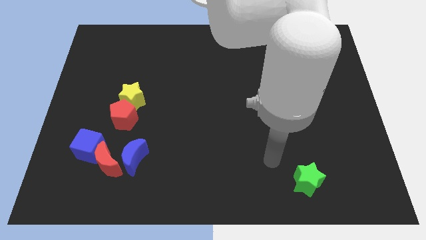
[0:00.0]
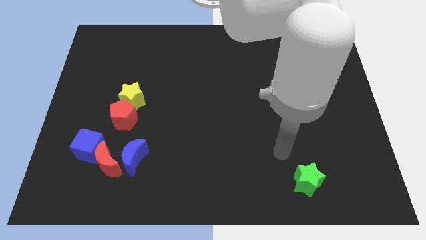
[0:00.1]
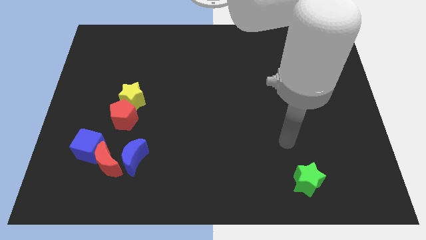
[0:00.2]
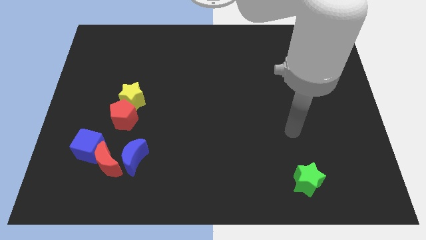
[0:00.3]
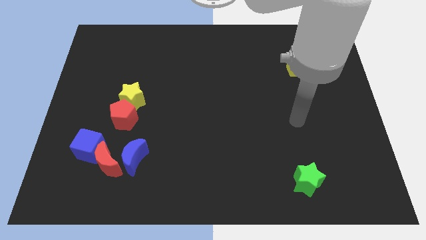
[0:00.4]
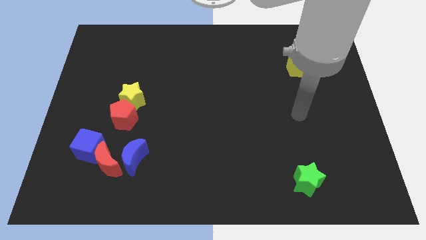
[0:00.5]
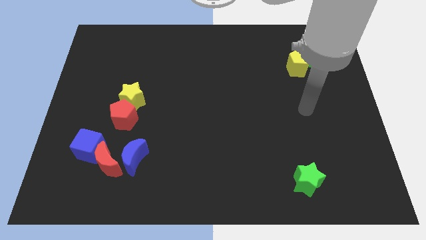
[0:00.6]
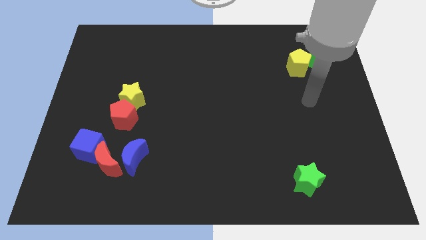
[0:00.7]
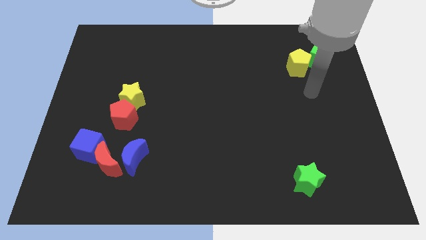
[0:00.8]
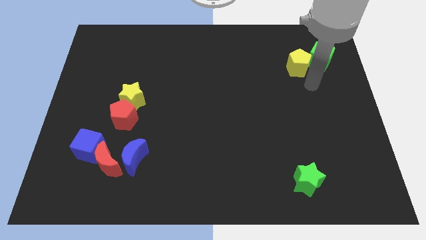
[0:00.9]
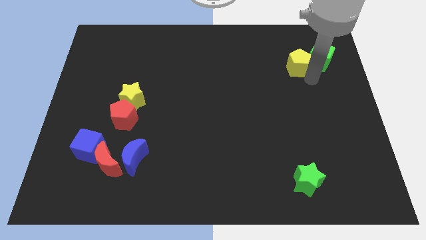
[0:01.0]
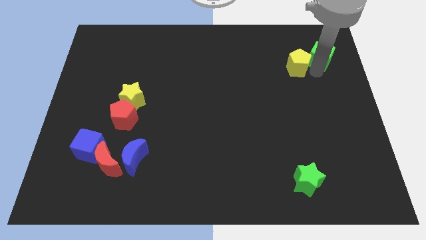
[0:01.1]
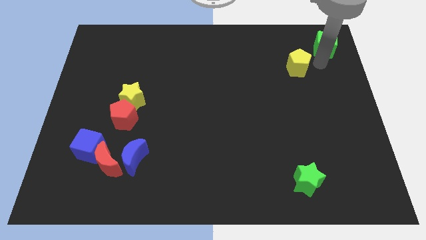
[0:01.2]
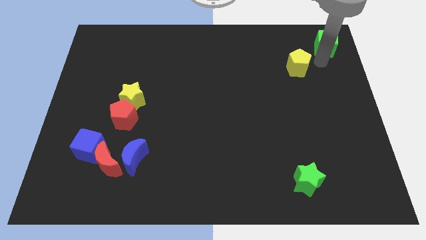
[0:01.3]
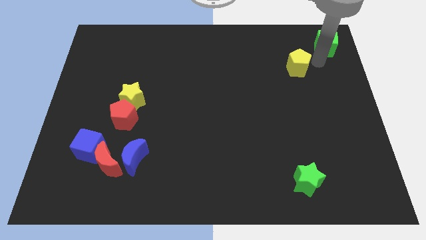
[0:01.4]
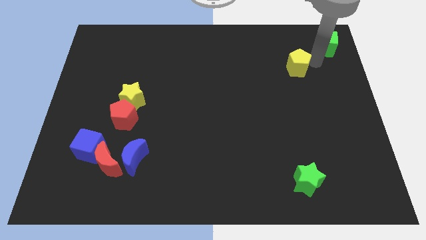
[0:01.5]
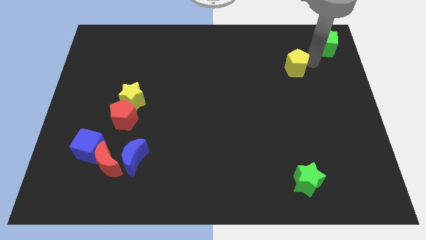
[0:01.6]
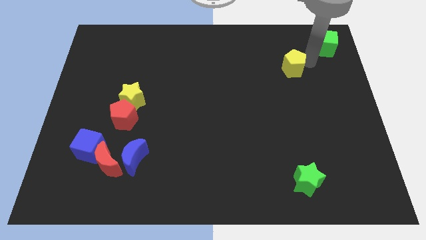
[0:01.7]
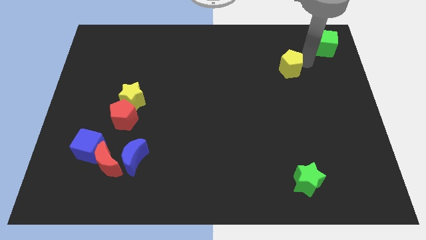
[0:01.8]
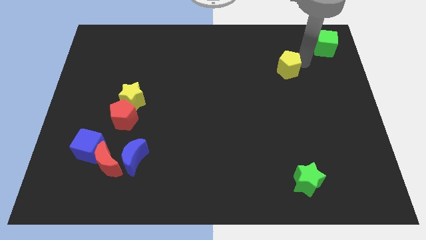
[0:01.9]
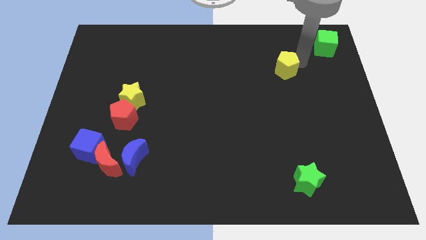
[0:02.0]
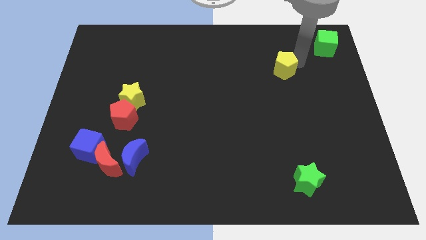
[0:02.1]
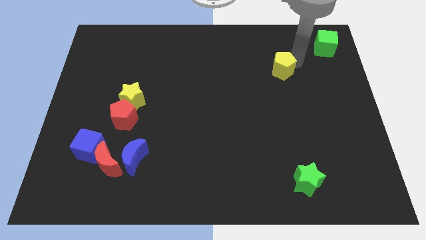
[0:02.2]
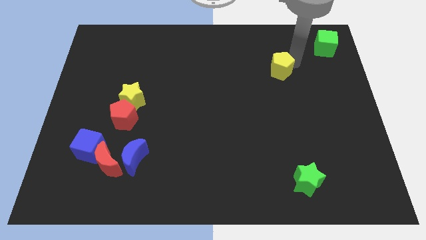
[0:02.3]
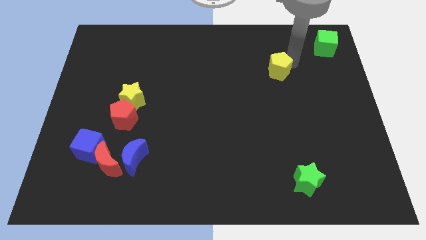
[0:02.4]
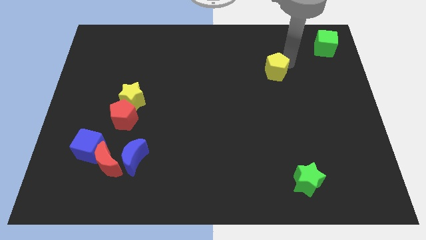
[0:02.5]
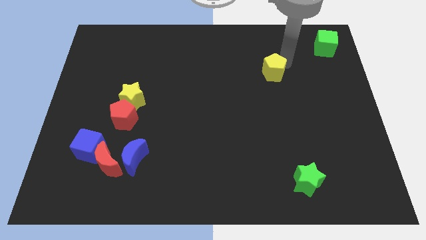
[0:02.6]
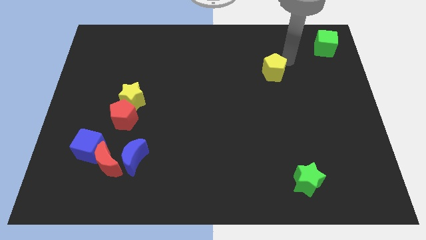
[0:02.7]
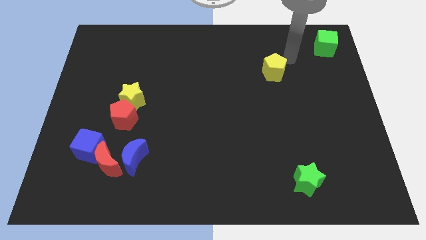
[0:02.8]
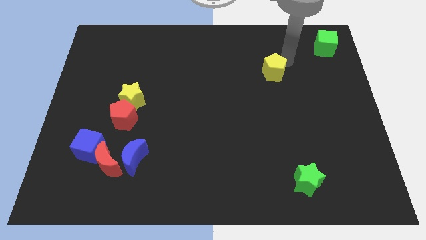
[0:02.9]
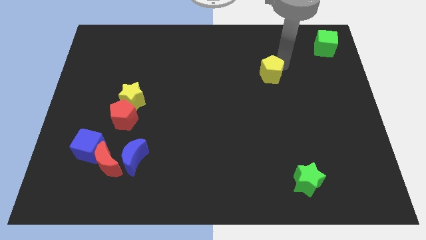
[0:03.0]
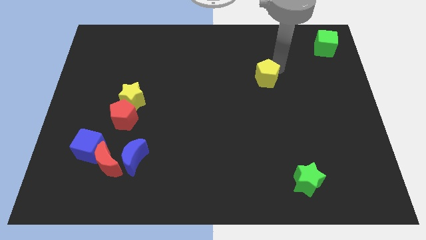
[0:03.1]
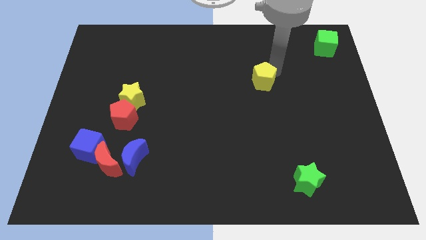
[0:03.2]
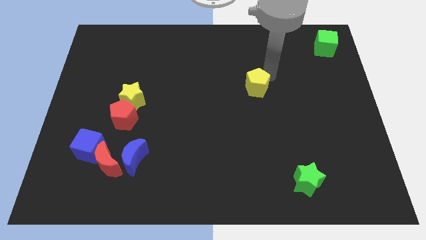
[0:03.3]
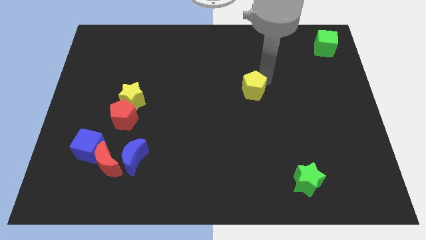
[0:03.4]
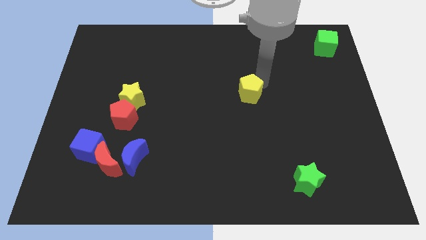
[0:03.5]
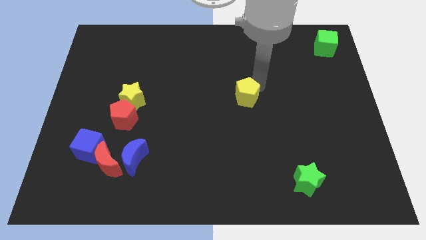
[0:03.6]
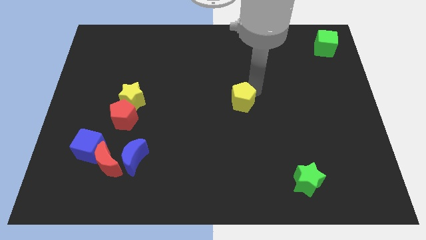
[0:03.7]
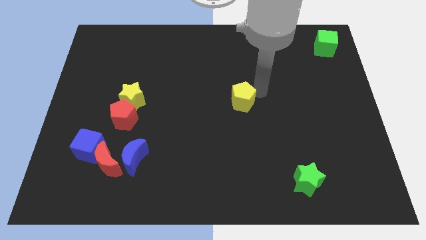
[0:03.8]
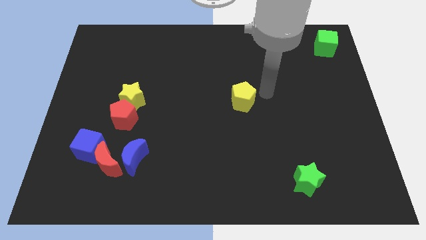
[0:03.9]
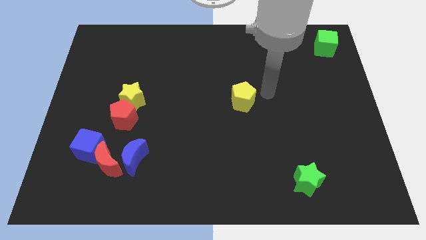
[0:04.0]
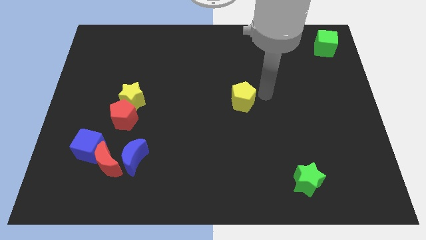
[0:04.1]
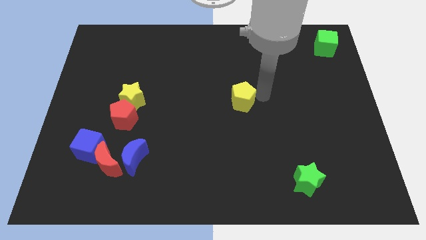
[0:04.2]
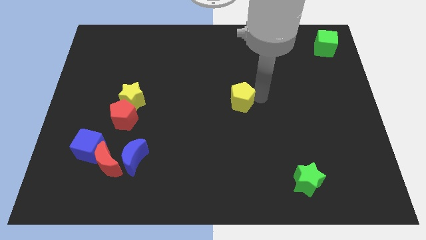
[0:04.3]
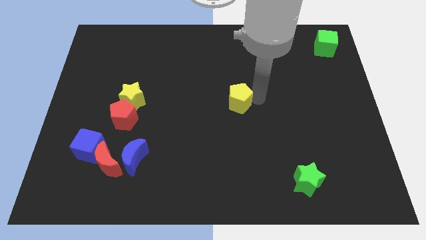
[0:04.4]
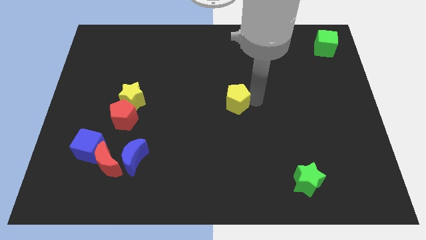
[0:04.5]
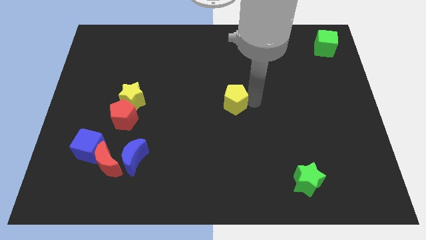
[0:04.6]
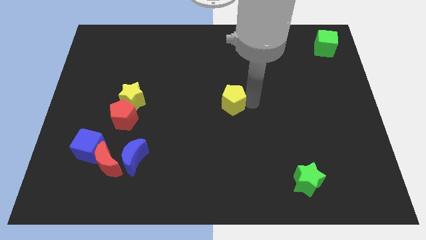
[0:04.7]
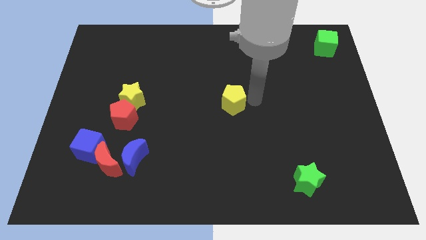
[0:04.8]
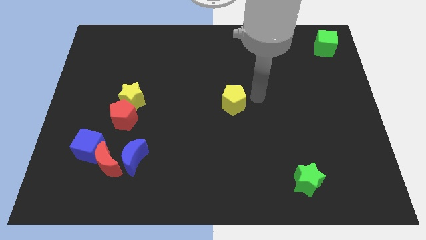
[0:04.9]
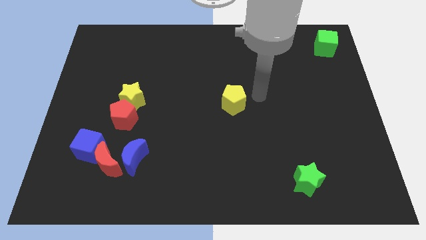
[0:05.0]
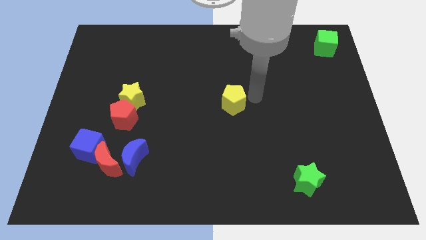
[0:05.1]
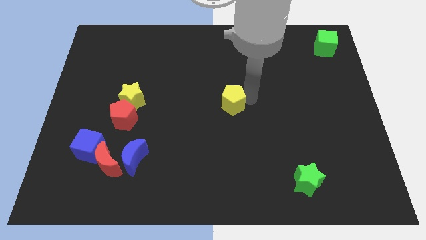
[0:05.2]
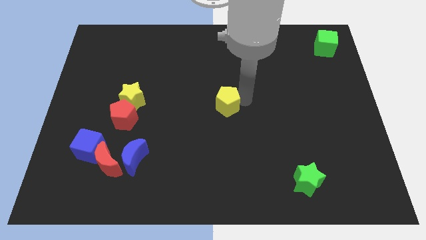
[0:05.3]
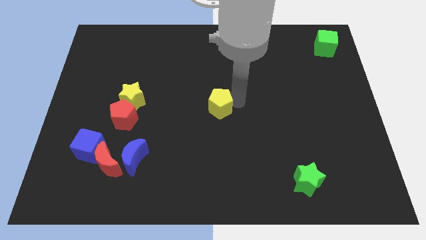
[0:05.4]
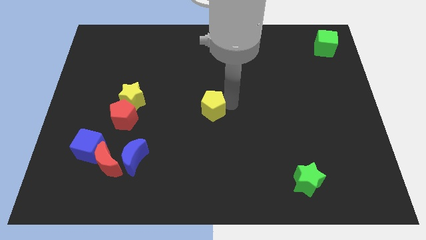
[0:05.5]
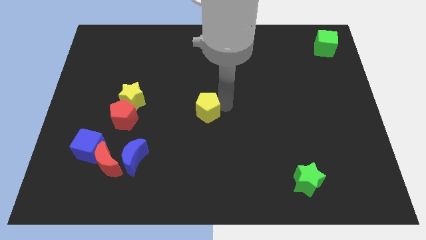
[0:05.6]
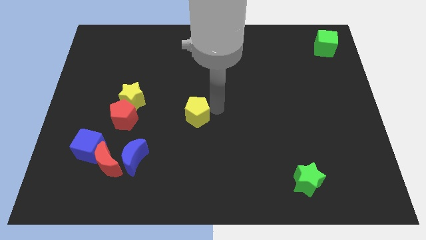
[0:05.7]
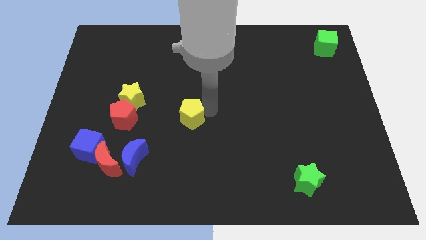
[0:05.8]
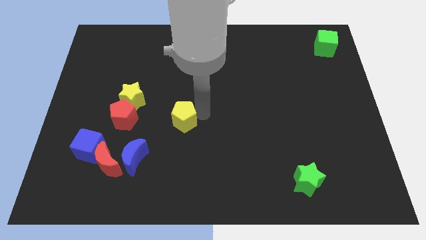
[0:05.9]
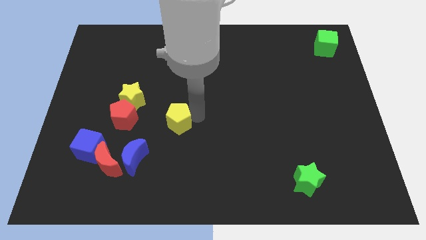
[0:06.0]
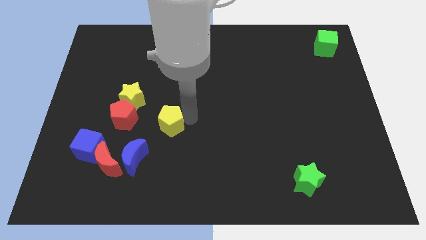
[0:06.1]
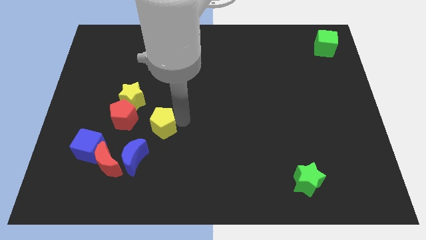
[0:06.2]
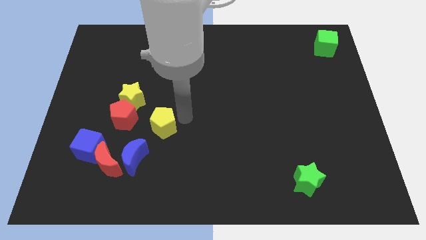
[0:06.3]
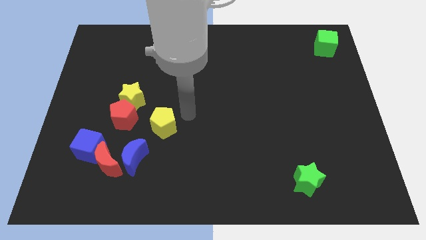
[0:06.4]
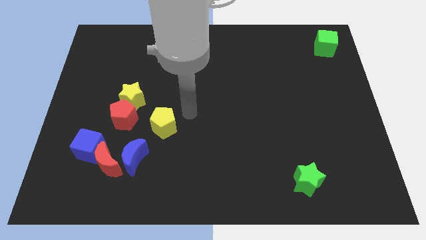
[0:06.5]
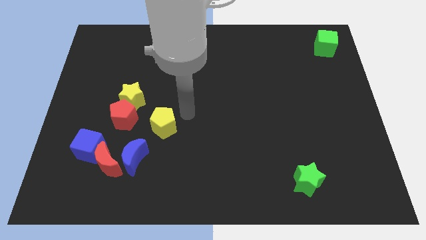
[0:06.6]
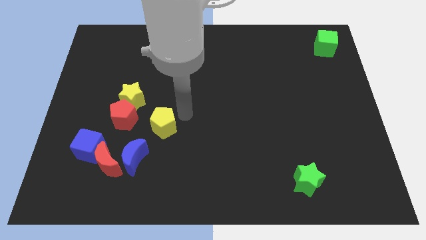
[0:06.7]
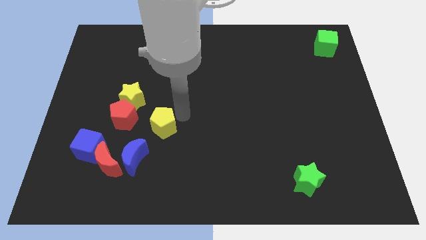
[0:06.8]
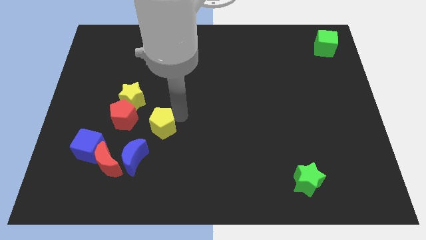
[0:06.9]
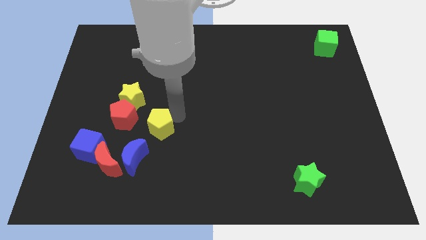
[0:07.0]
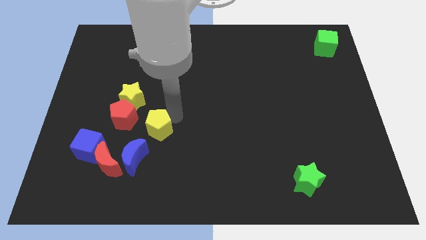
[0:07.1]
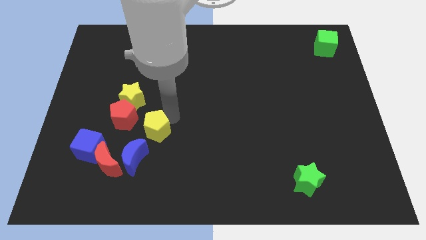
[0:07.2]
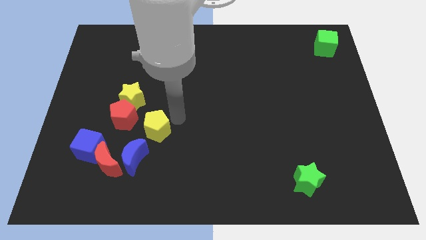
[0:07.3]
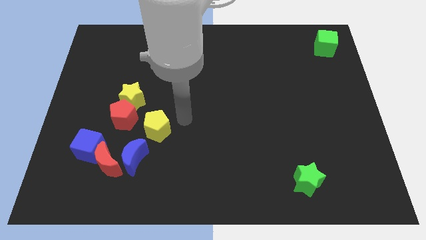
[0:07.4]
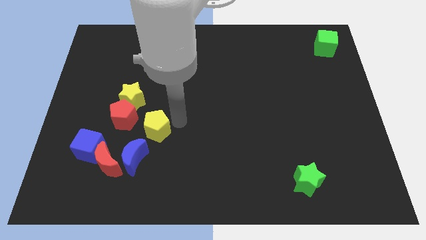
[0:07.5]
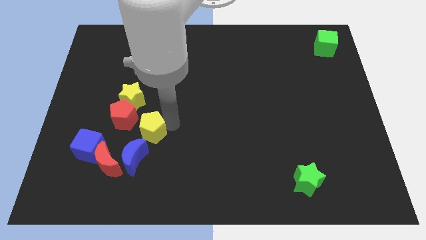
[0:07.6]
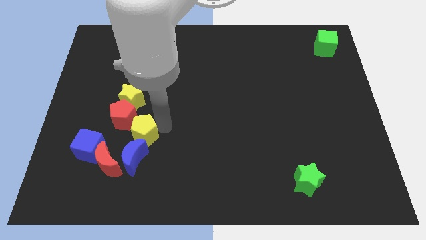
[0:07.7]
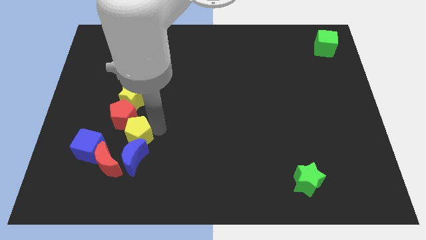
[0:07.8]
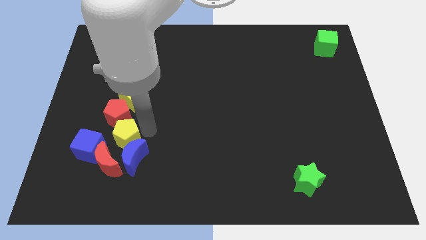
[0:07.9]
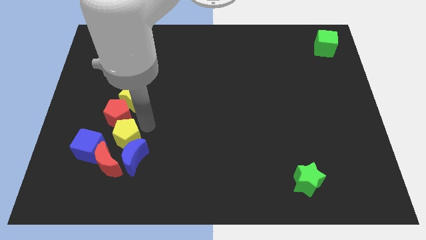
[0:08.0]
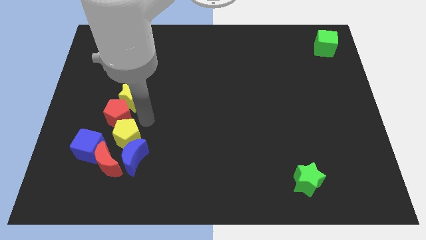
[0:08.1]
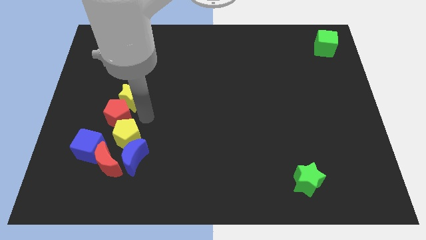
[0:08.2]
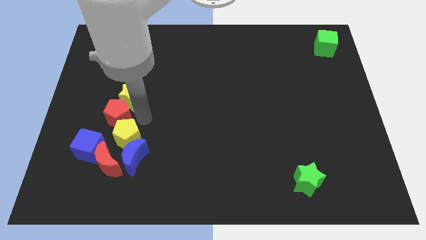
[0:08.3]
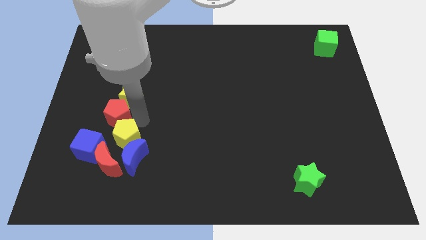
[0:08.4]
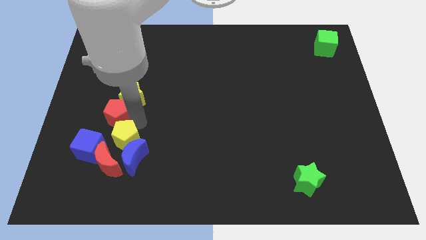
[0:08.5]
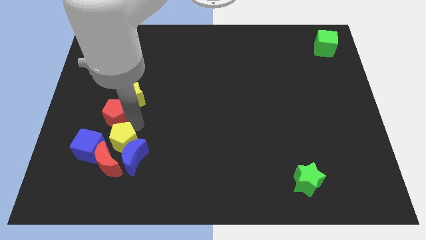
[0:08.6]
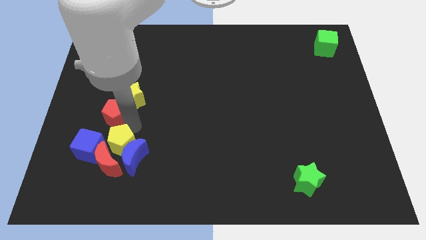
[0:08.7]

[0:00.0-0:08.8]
push the yellow pentagon towards the red moon
